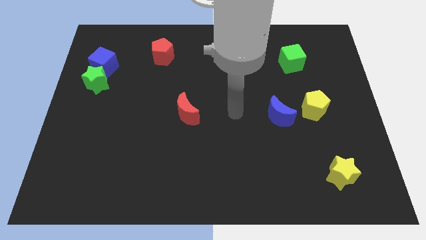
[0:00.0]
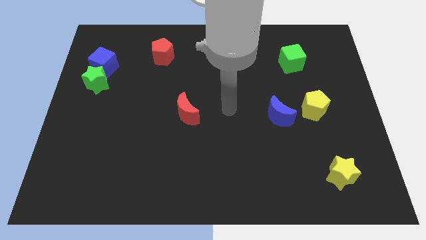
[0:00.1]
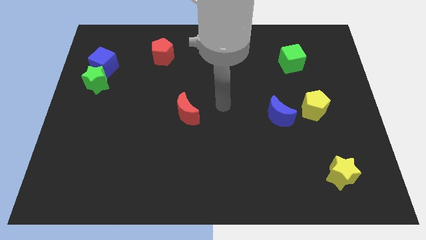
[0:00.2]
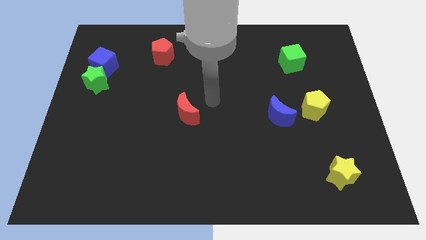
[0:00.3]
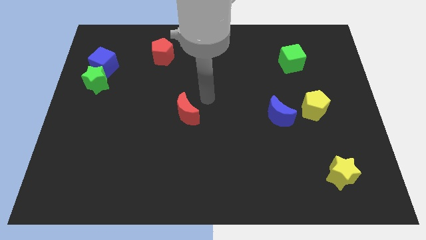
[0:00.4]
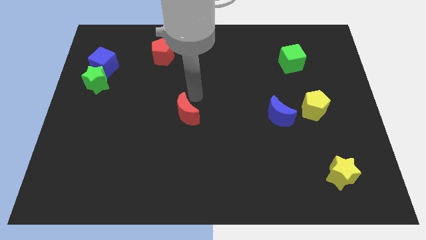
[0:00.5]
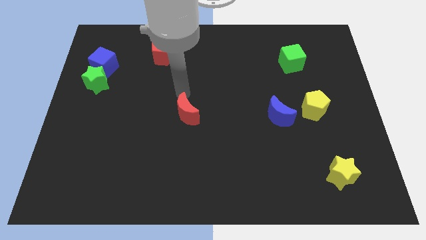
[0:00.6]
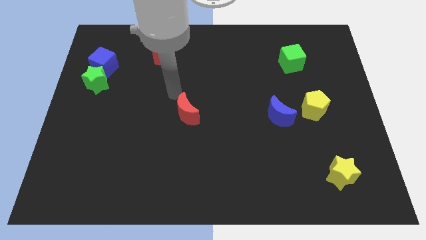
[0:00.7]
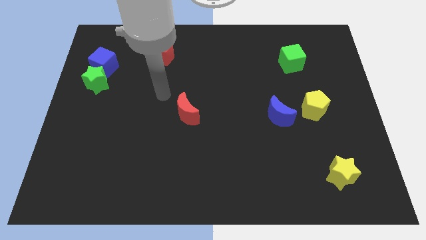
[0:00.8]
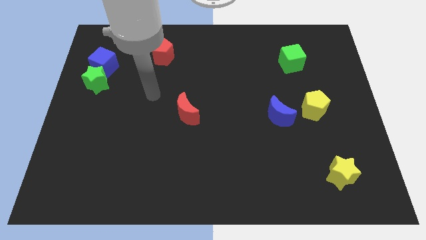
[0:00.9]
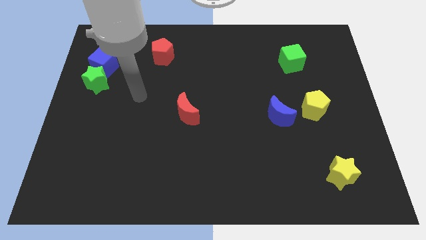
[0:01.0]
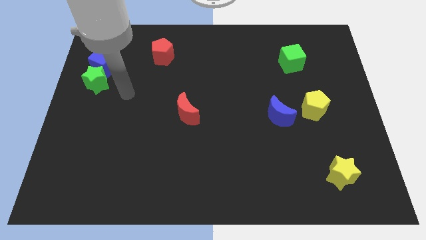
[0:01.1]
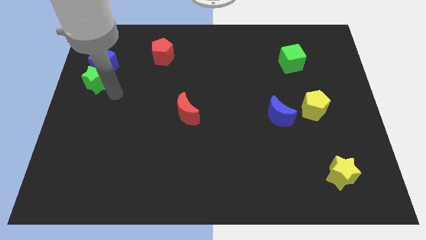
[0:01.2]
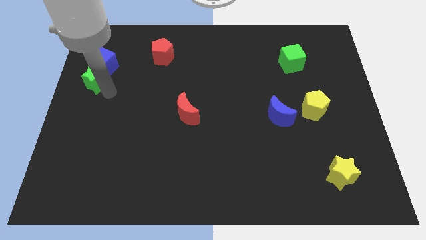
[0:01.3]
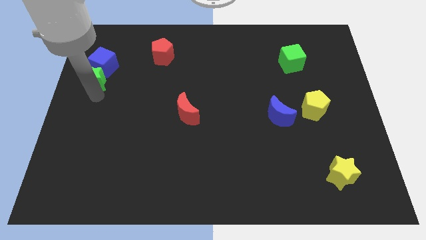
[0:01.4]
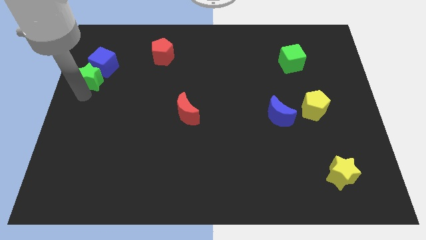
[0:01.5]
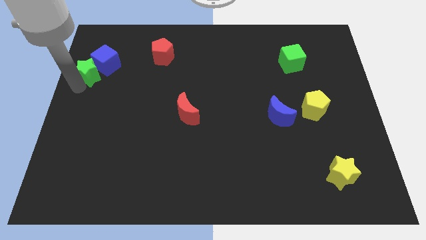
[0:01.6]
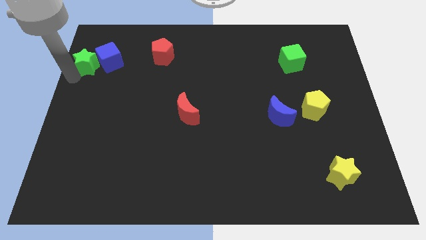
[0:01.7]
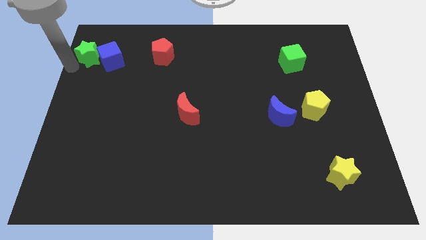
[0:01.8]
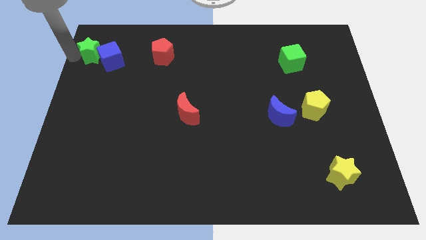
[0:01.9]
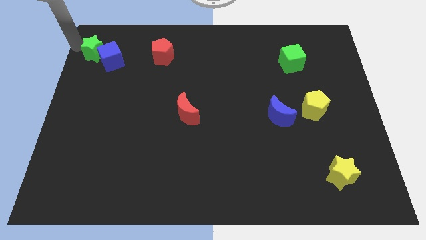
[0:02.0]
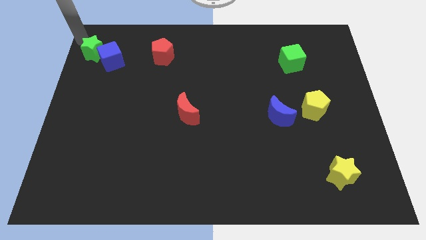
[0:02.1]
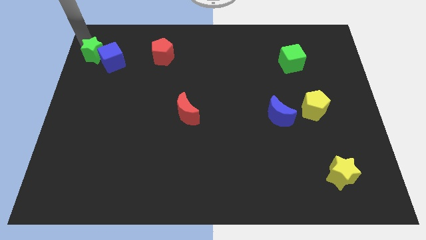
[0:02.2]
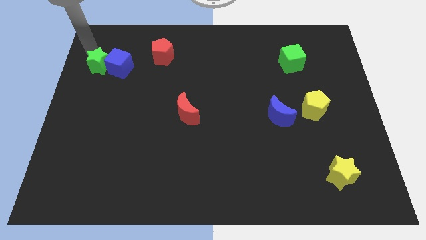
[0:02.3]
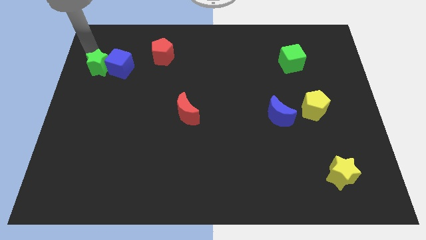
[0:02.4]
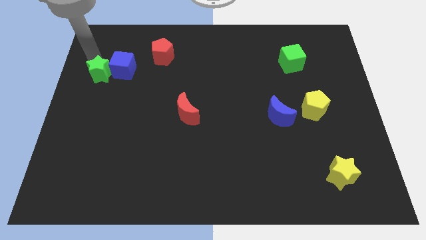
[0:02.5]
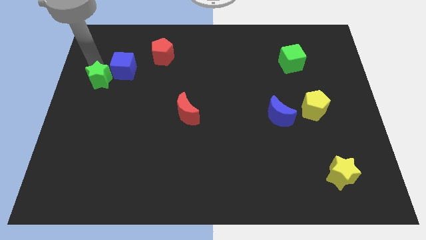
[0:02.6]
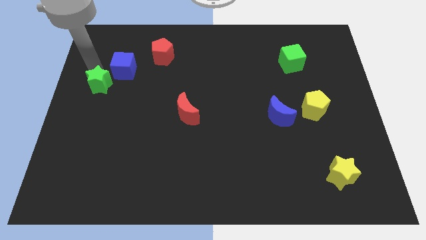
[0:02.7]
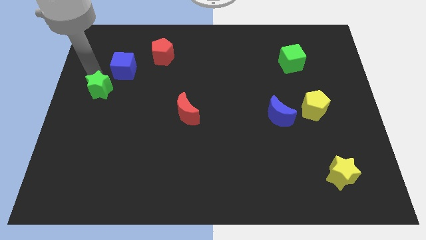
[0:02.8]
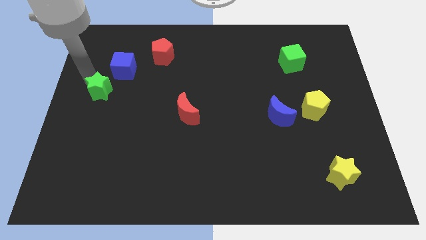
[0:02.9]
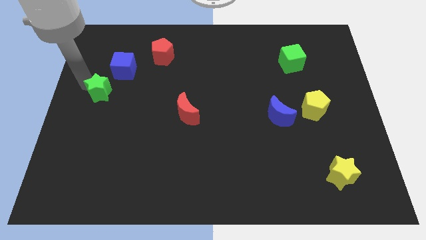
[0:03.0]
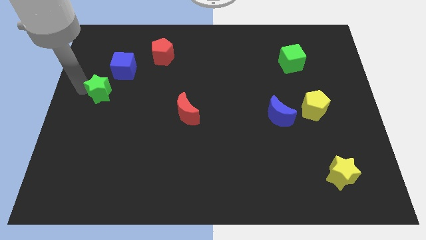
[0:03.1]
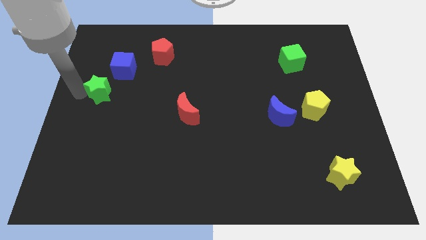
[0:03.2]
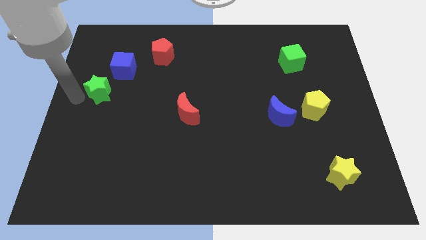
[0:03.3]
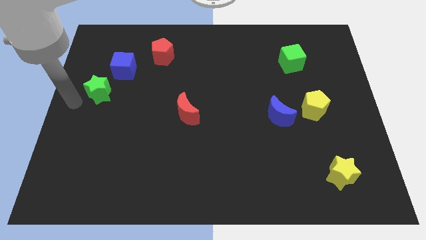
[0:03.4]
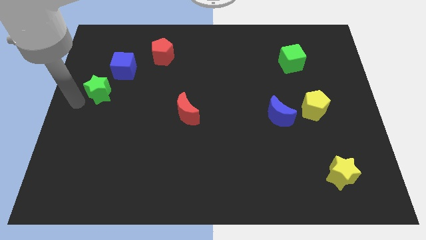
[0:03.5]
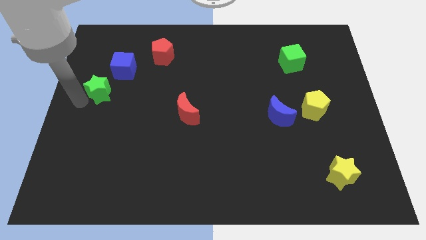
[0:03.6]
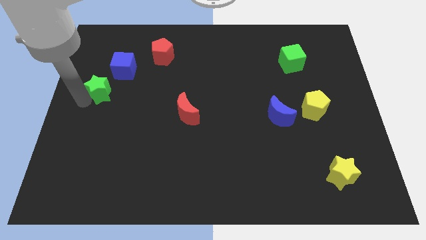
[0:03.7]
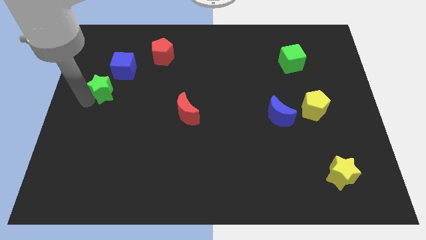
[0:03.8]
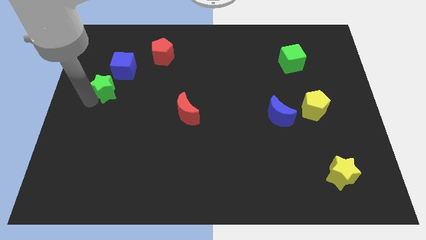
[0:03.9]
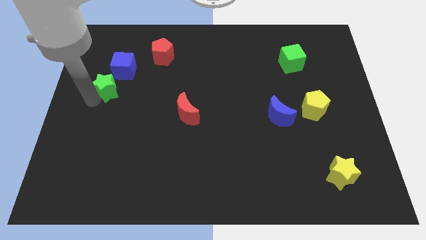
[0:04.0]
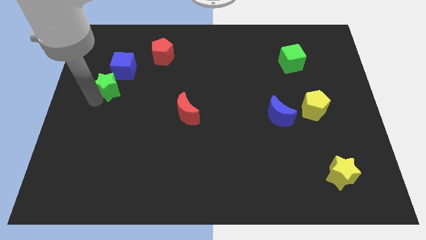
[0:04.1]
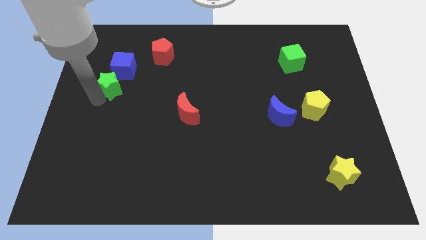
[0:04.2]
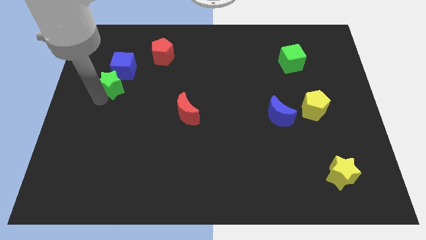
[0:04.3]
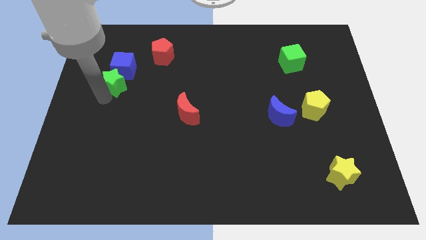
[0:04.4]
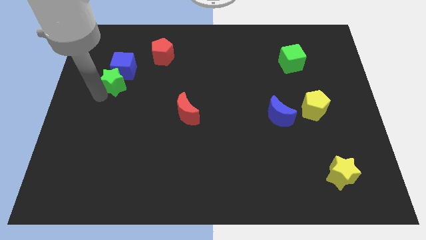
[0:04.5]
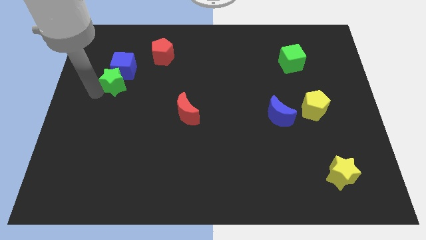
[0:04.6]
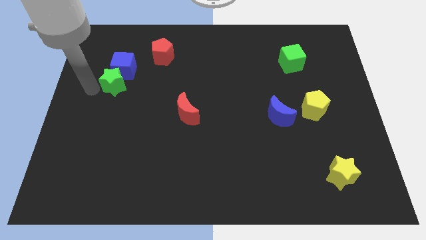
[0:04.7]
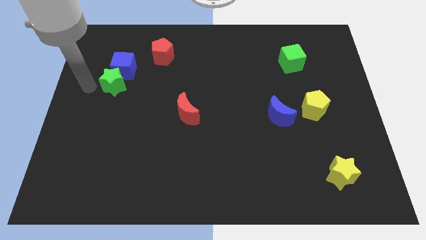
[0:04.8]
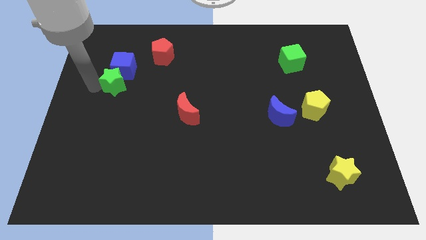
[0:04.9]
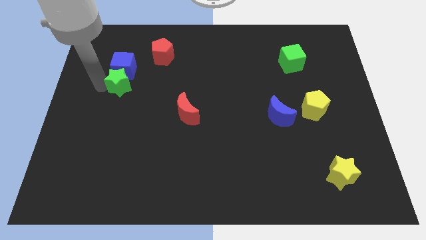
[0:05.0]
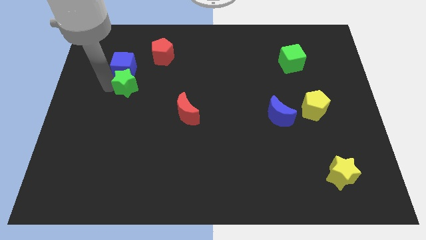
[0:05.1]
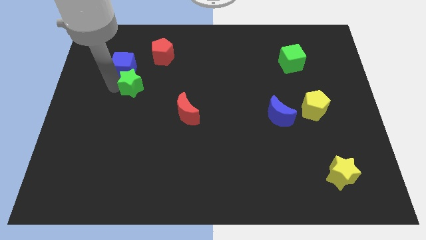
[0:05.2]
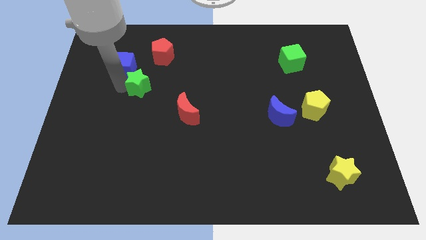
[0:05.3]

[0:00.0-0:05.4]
slide the green star below the red pentagon

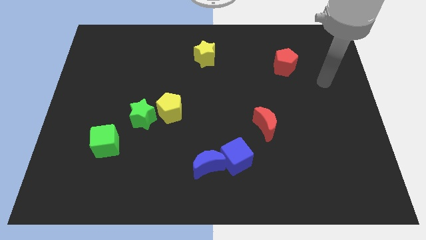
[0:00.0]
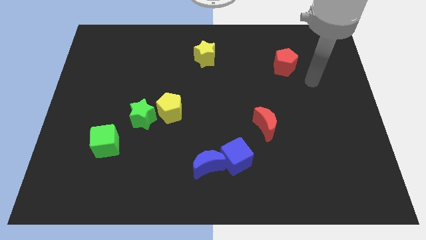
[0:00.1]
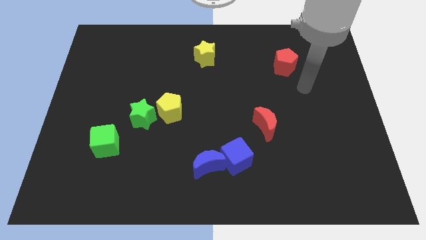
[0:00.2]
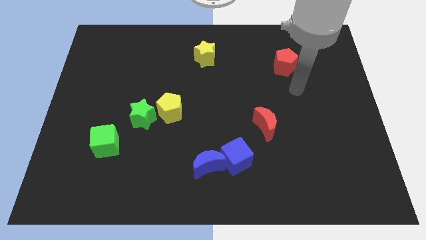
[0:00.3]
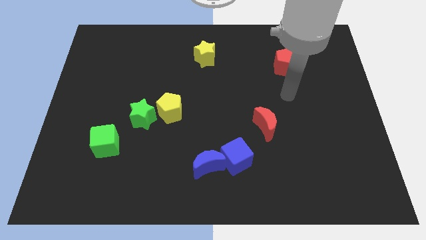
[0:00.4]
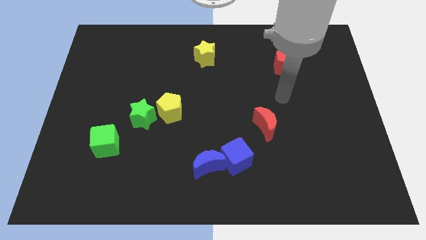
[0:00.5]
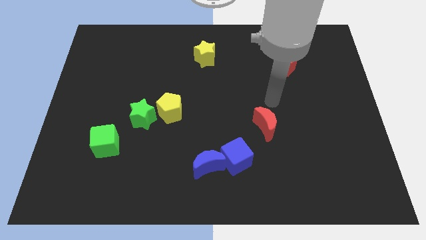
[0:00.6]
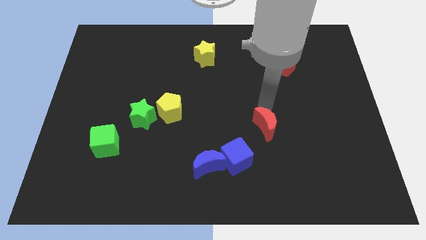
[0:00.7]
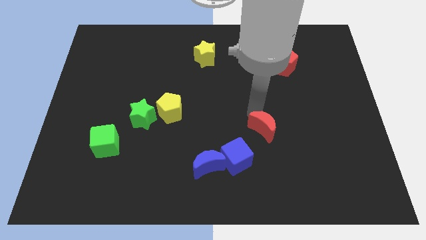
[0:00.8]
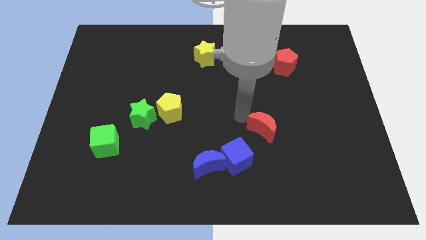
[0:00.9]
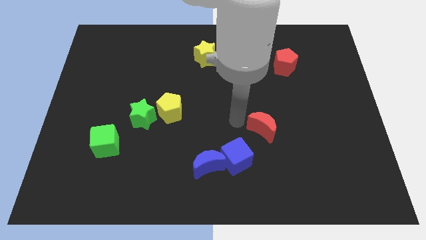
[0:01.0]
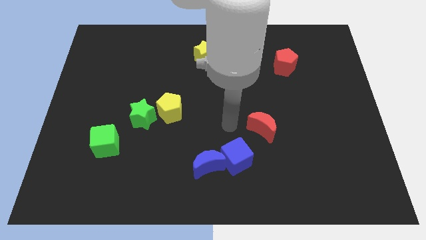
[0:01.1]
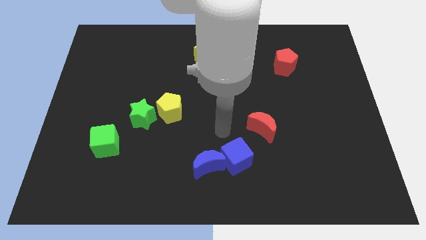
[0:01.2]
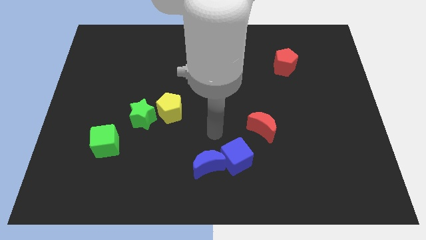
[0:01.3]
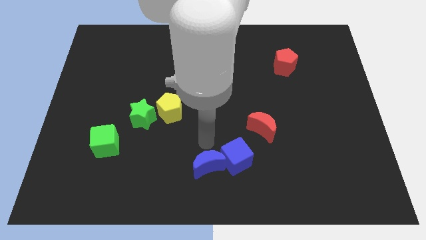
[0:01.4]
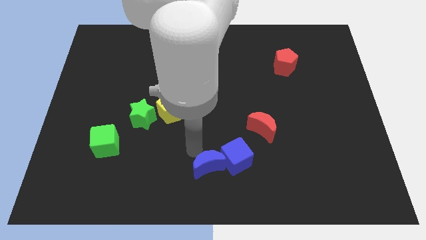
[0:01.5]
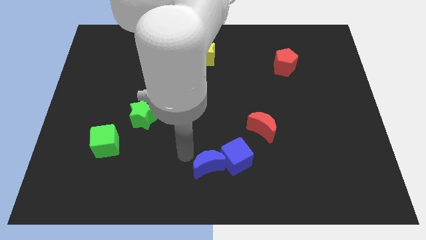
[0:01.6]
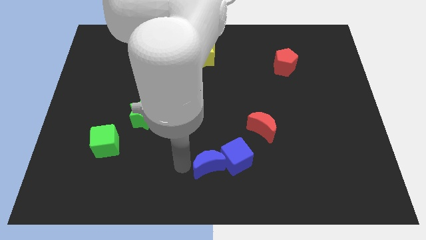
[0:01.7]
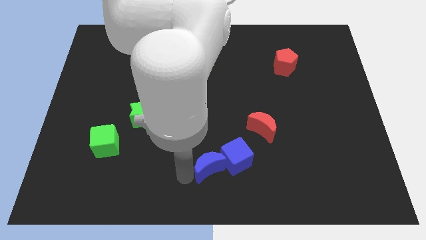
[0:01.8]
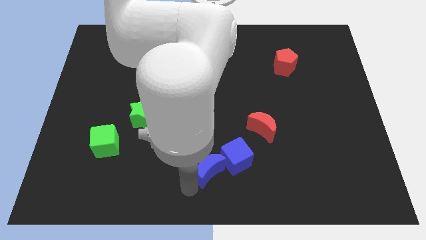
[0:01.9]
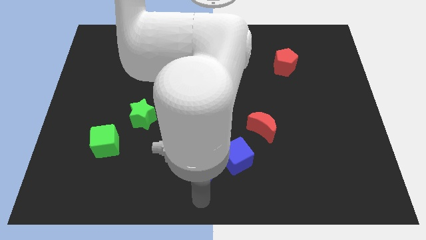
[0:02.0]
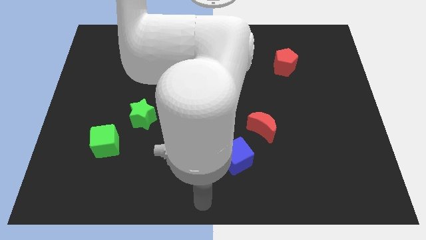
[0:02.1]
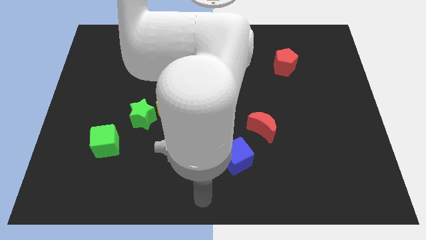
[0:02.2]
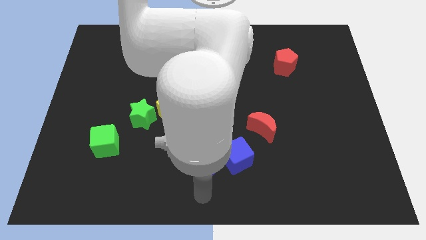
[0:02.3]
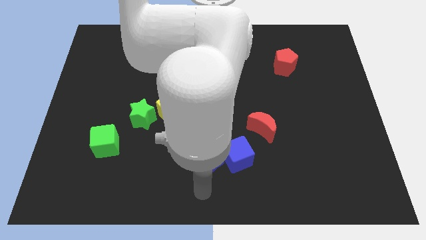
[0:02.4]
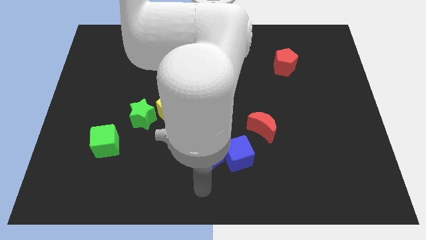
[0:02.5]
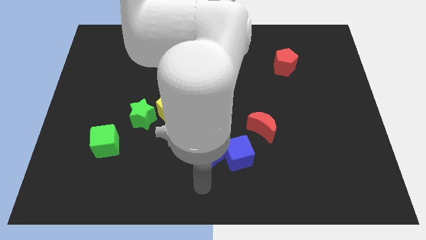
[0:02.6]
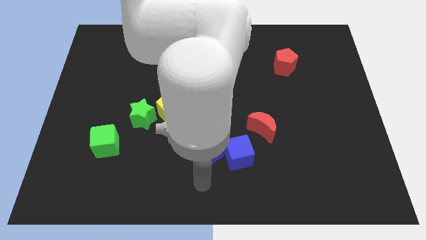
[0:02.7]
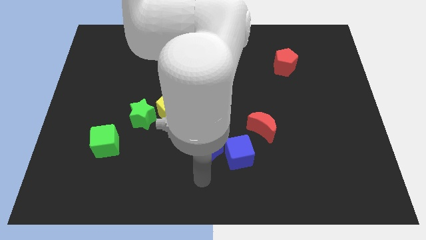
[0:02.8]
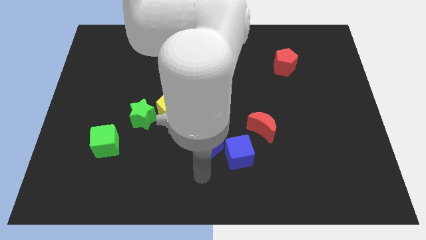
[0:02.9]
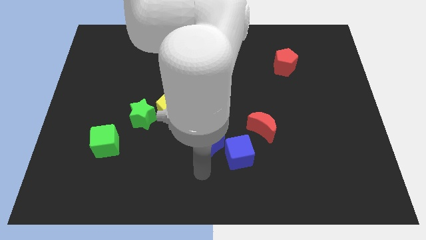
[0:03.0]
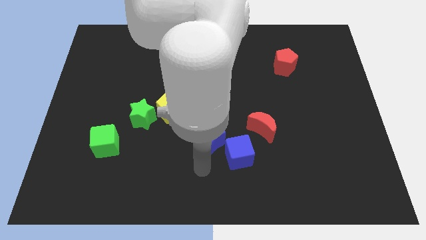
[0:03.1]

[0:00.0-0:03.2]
put the blue moon to the left side of the red moon
